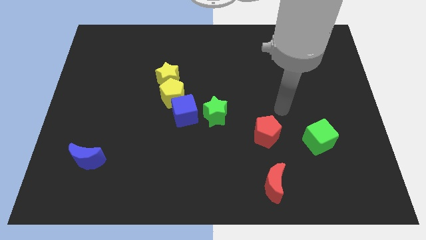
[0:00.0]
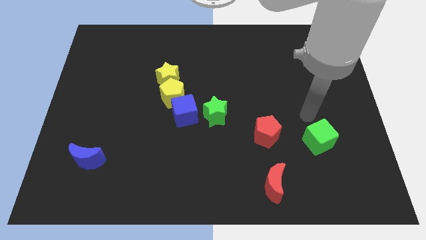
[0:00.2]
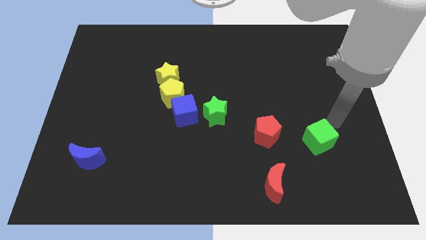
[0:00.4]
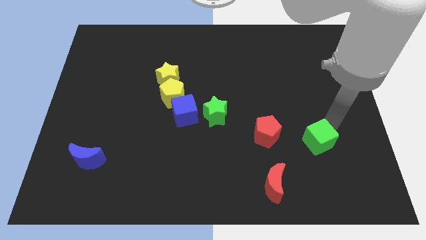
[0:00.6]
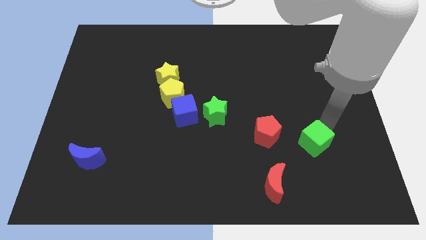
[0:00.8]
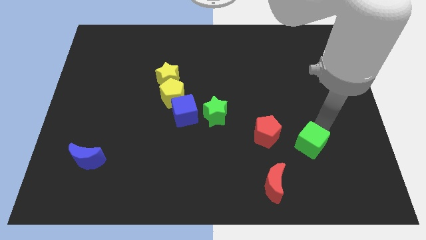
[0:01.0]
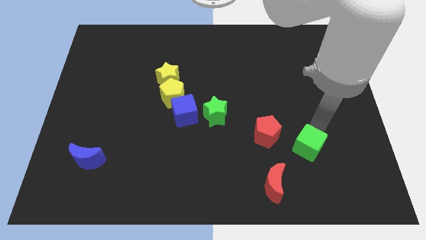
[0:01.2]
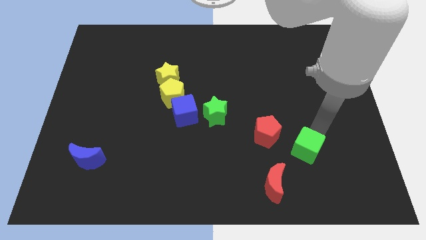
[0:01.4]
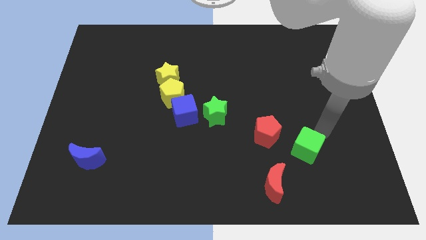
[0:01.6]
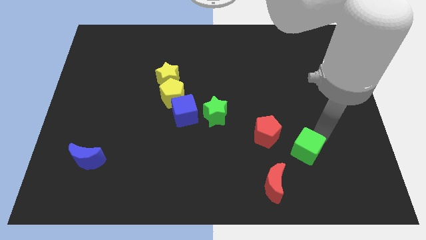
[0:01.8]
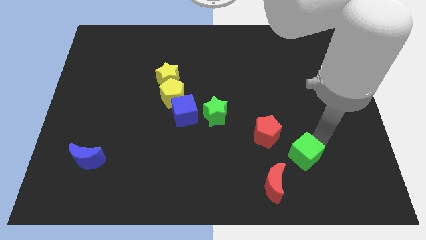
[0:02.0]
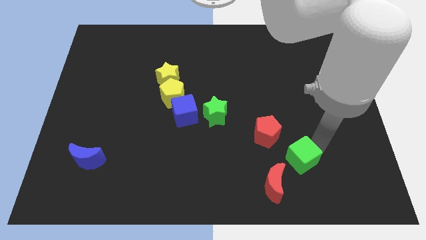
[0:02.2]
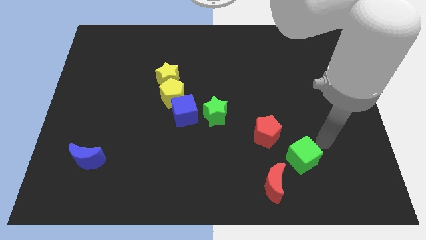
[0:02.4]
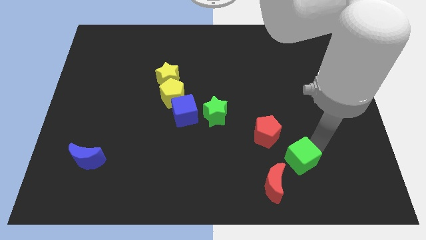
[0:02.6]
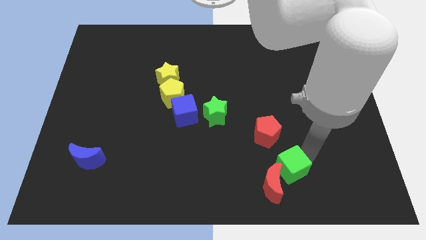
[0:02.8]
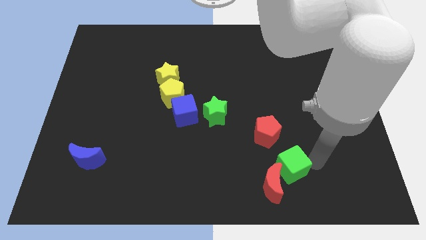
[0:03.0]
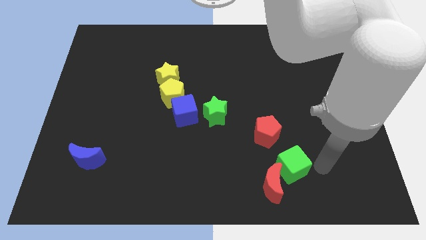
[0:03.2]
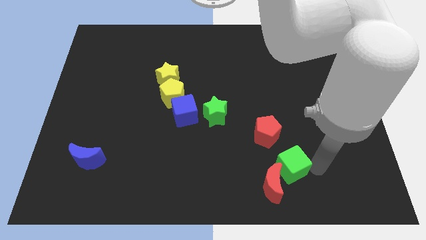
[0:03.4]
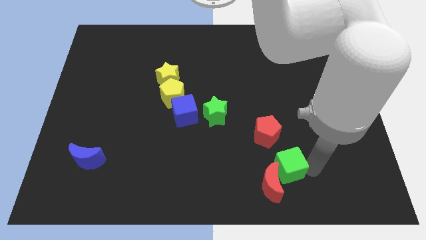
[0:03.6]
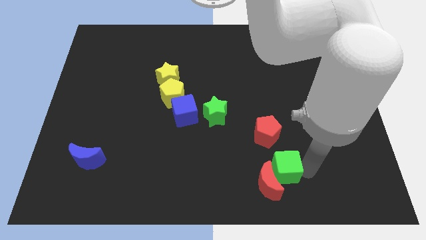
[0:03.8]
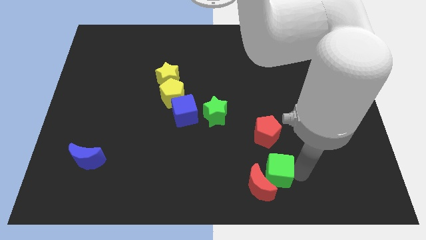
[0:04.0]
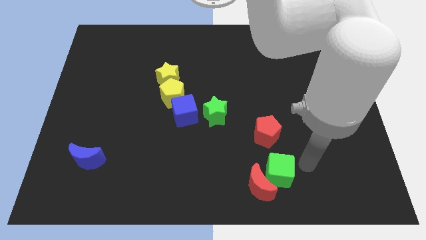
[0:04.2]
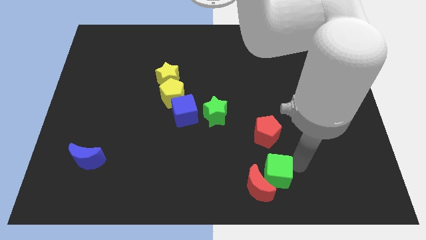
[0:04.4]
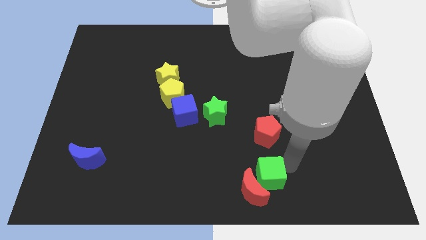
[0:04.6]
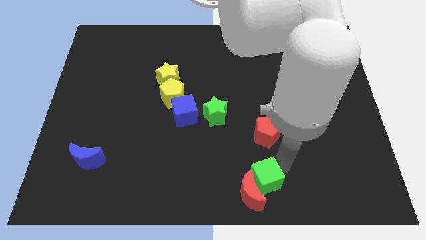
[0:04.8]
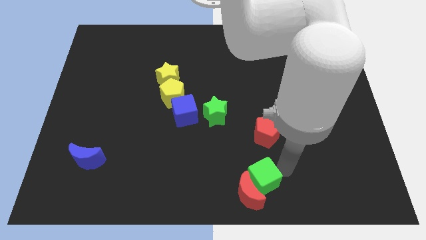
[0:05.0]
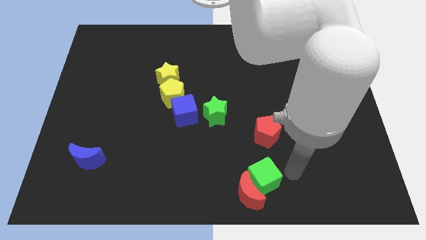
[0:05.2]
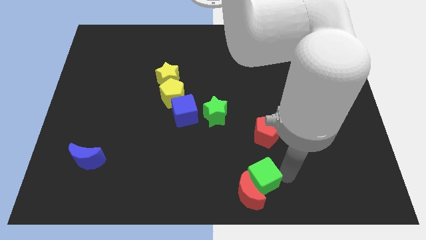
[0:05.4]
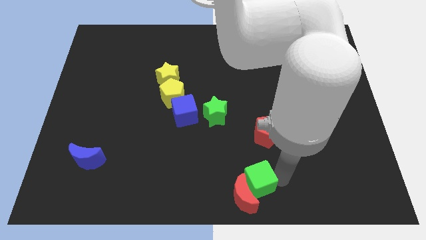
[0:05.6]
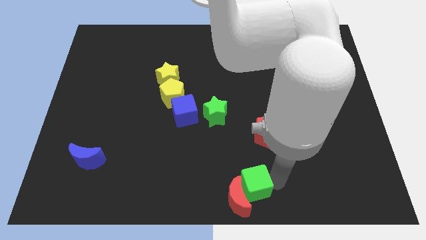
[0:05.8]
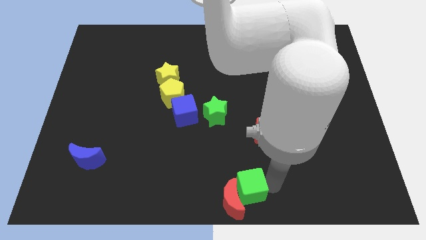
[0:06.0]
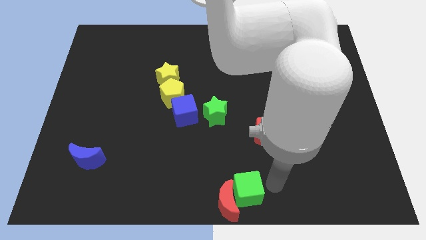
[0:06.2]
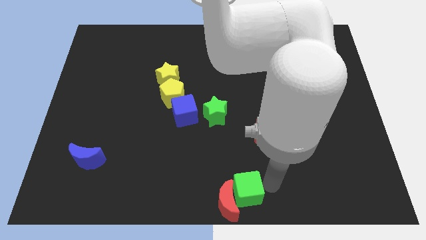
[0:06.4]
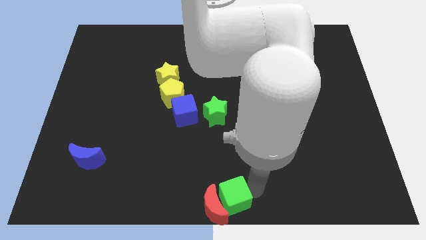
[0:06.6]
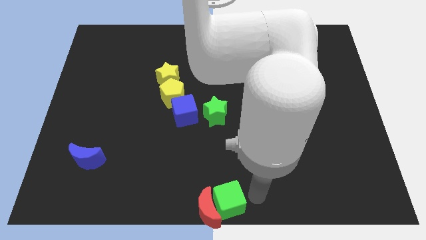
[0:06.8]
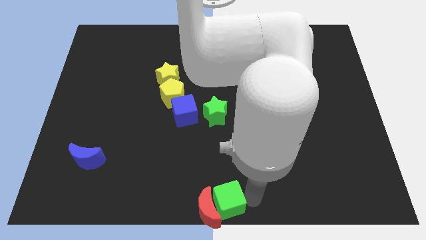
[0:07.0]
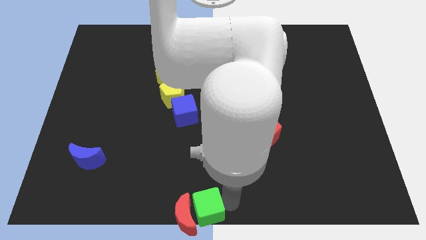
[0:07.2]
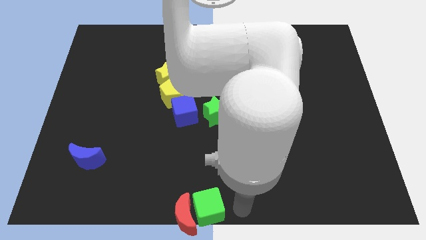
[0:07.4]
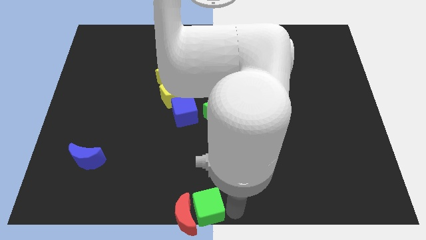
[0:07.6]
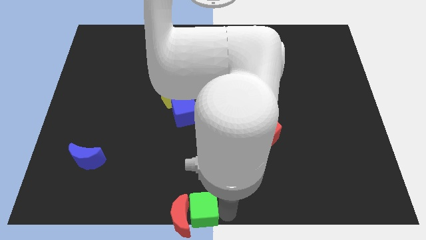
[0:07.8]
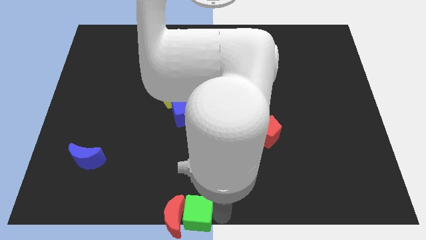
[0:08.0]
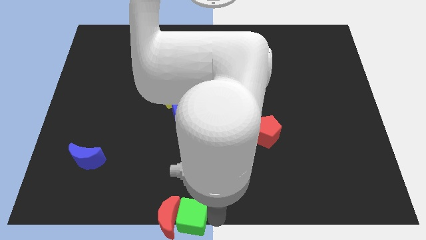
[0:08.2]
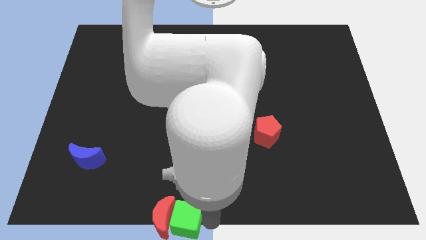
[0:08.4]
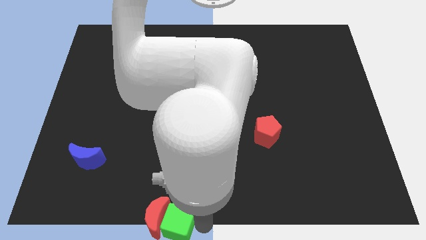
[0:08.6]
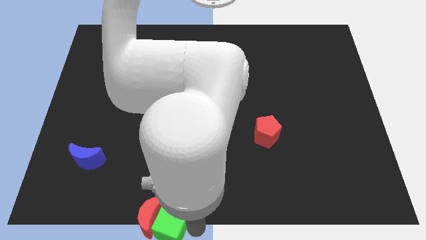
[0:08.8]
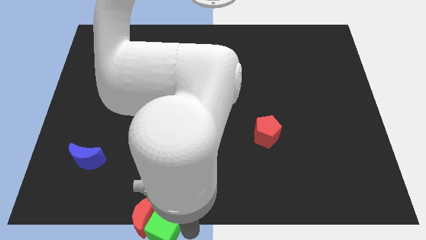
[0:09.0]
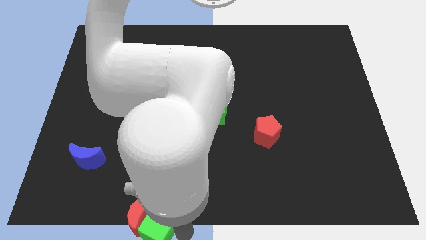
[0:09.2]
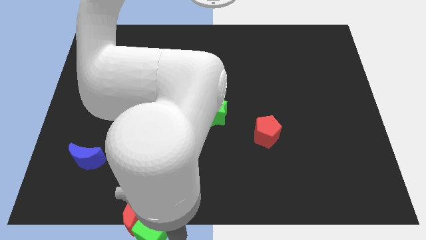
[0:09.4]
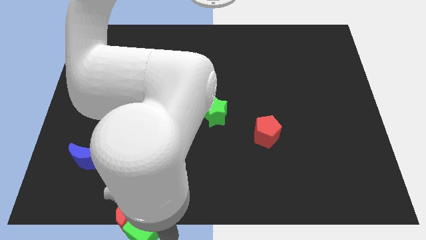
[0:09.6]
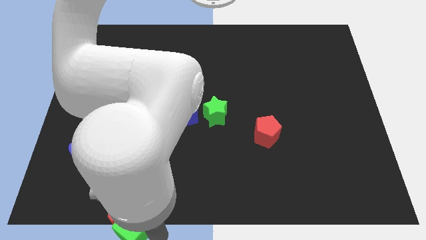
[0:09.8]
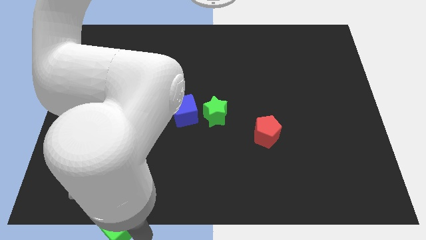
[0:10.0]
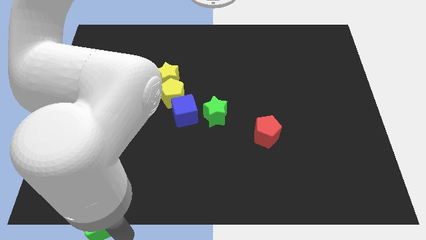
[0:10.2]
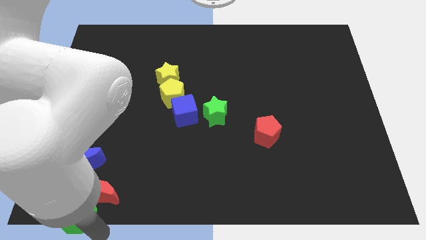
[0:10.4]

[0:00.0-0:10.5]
put the green cube to the lower left corner

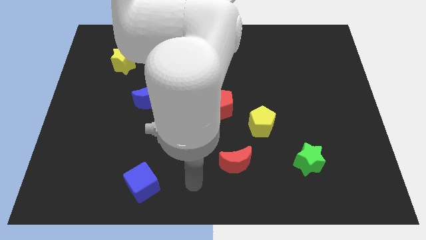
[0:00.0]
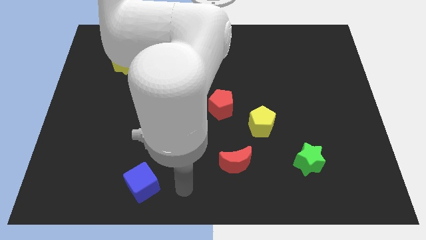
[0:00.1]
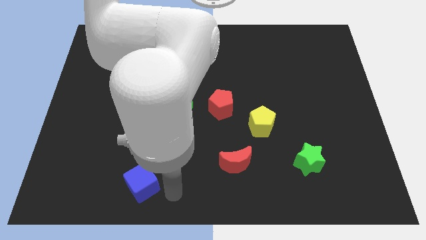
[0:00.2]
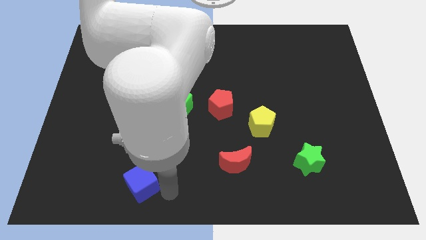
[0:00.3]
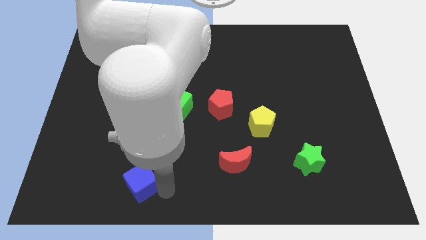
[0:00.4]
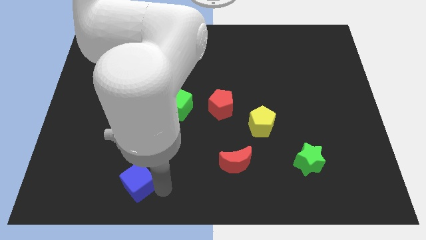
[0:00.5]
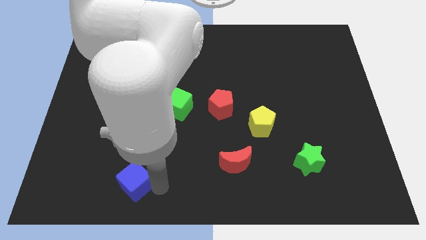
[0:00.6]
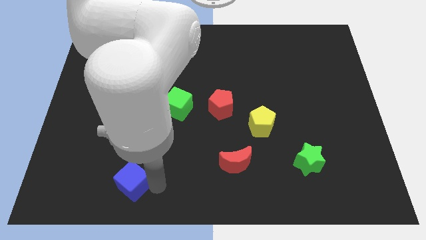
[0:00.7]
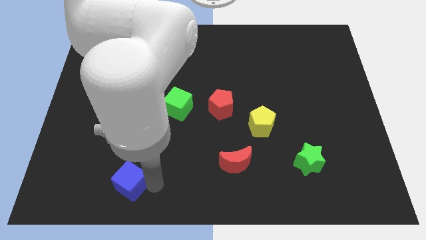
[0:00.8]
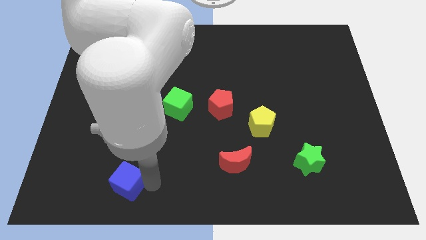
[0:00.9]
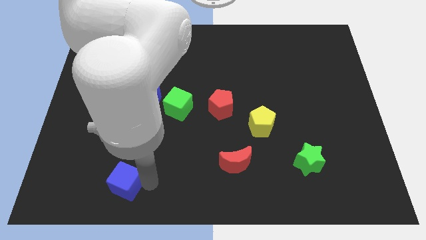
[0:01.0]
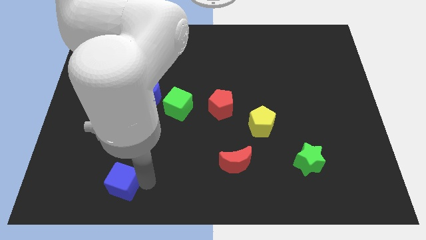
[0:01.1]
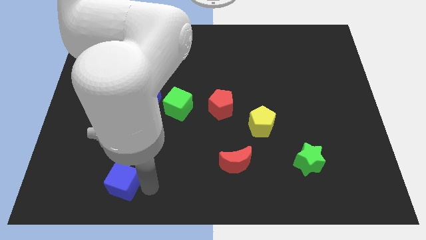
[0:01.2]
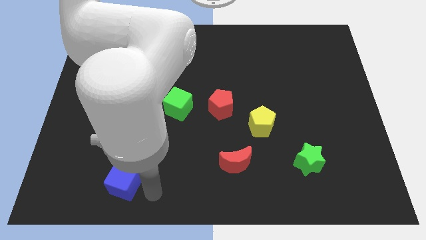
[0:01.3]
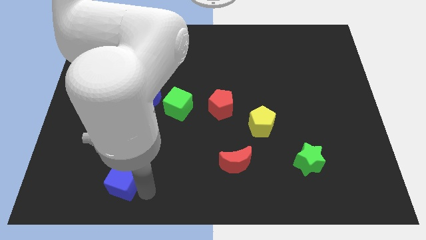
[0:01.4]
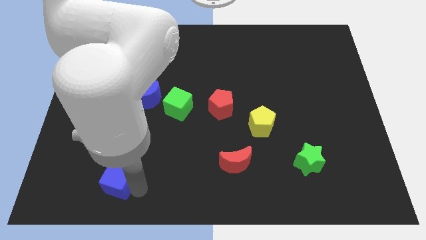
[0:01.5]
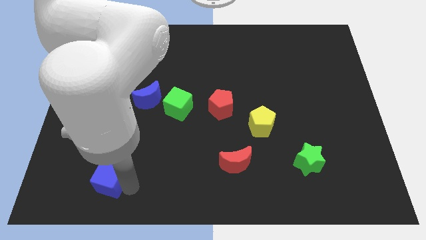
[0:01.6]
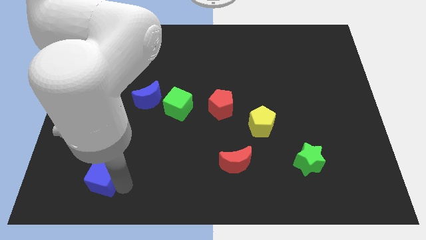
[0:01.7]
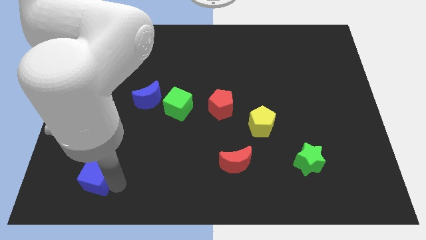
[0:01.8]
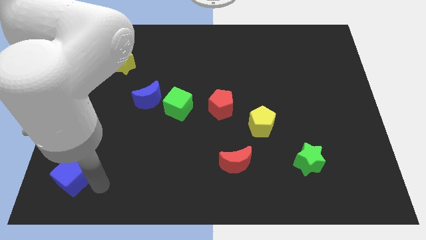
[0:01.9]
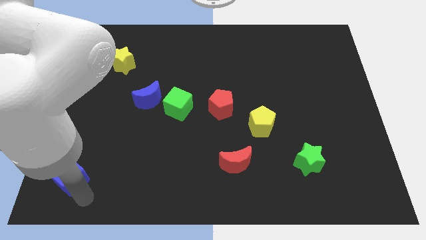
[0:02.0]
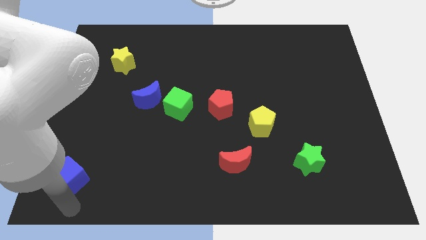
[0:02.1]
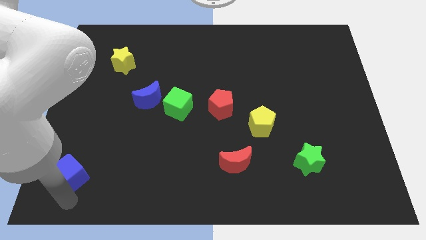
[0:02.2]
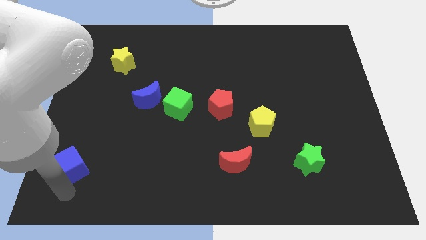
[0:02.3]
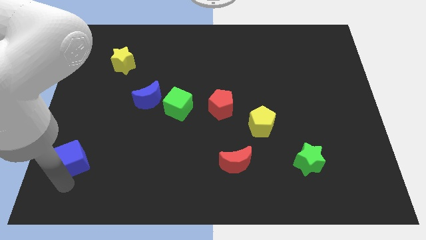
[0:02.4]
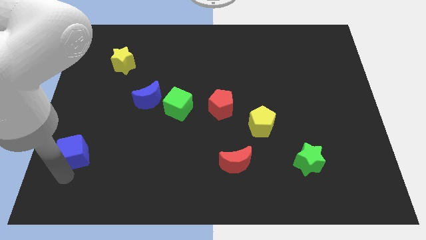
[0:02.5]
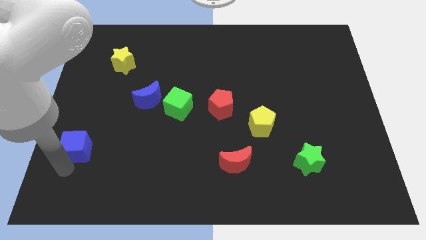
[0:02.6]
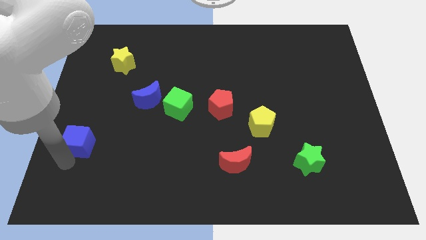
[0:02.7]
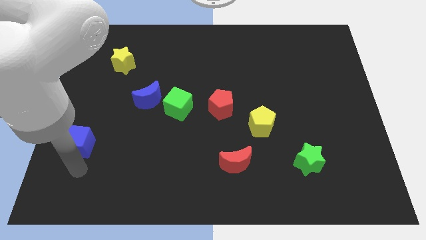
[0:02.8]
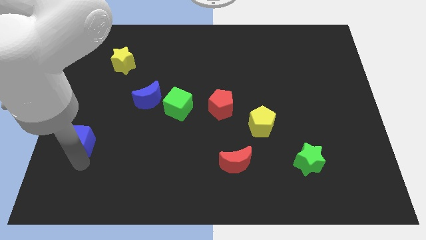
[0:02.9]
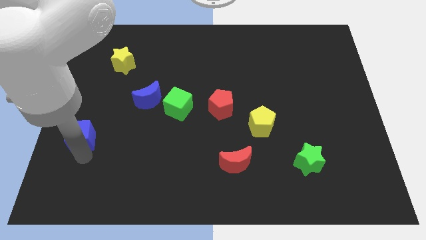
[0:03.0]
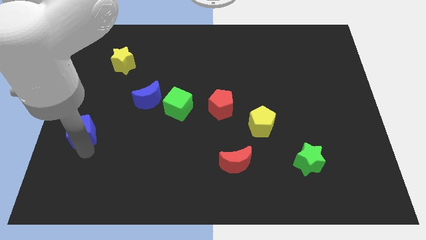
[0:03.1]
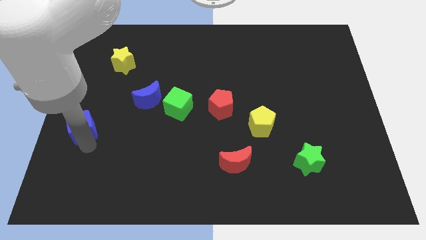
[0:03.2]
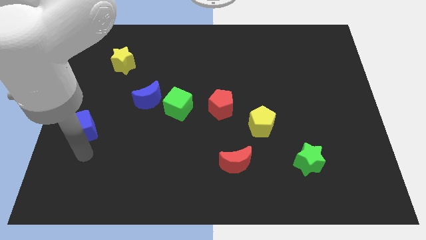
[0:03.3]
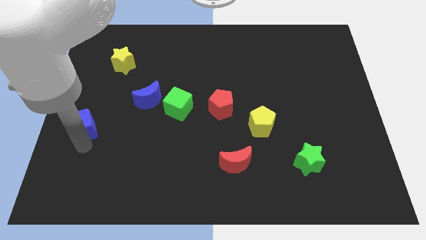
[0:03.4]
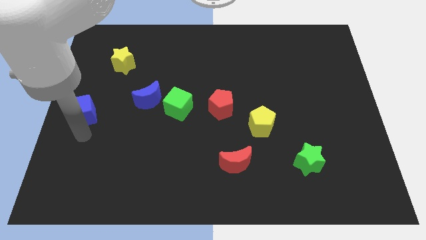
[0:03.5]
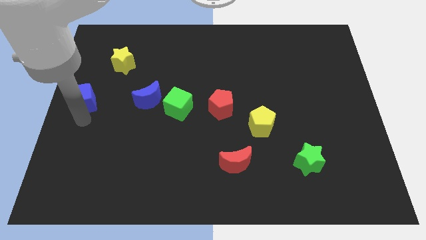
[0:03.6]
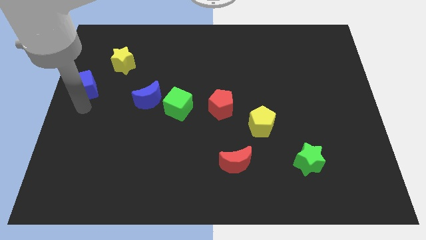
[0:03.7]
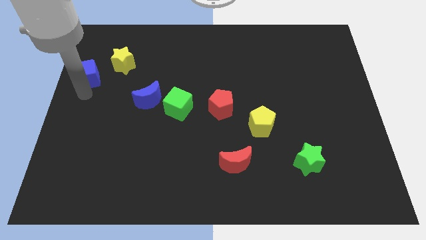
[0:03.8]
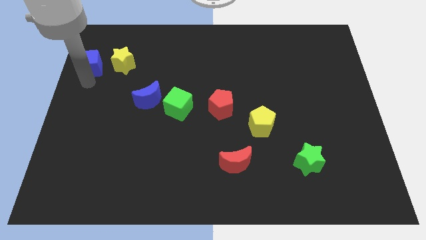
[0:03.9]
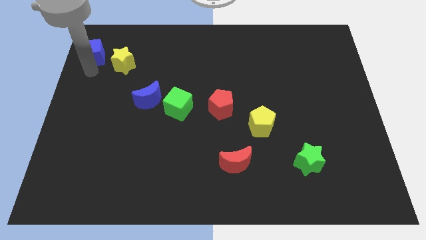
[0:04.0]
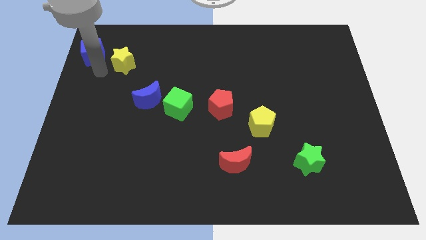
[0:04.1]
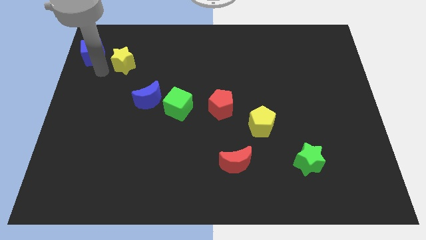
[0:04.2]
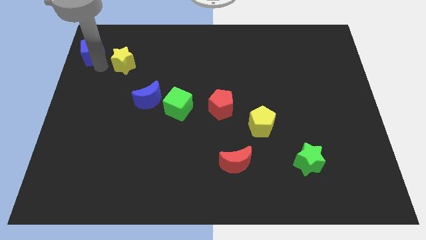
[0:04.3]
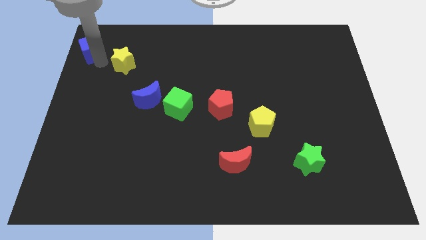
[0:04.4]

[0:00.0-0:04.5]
push the blue cube to the upper left corner
